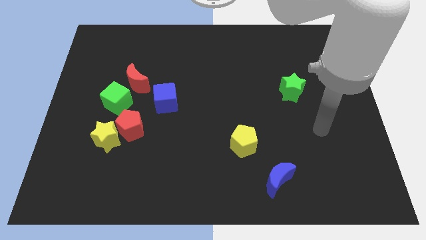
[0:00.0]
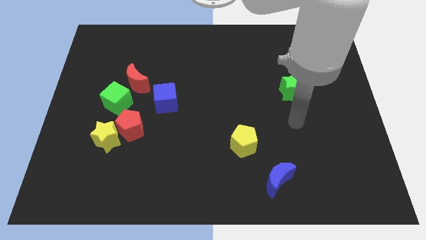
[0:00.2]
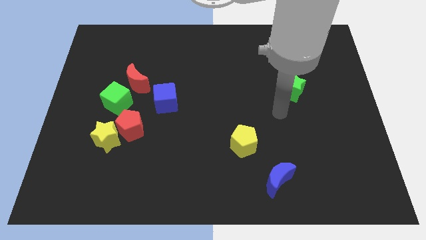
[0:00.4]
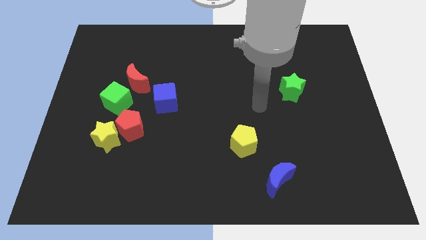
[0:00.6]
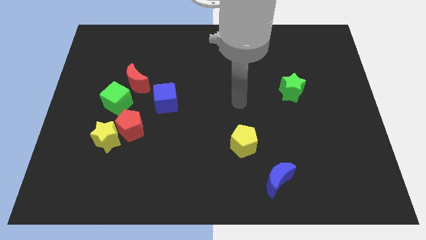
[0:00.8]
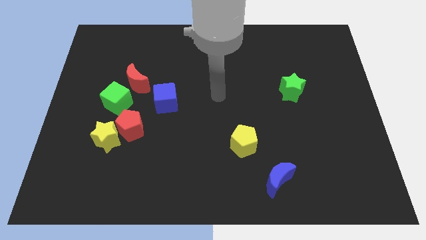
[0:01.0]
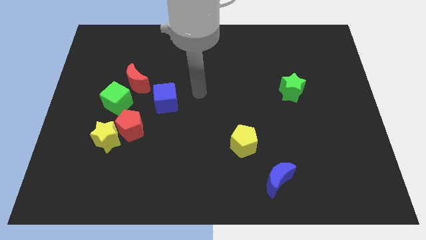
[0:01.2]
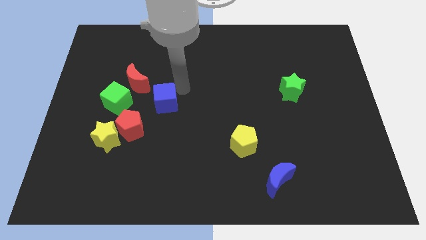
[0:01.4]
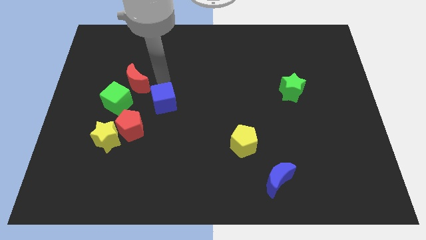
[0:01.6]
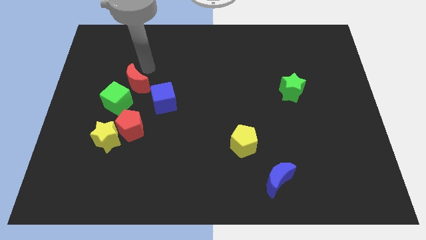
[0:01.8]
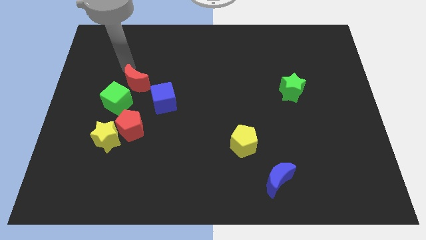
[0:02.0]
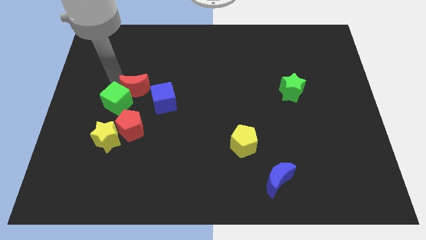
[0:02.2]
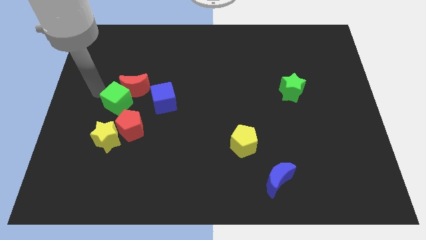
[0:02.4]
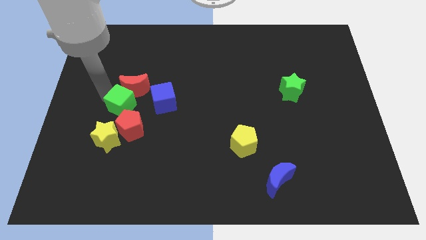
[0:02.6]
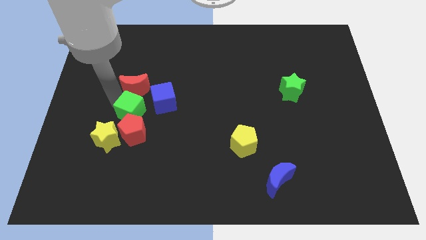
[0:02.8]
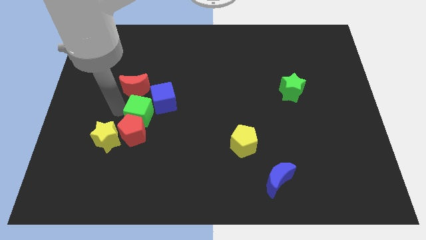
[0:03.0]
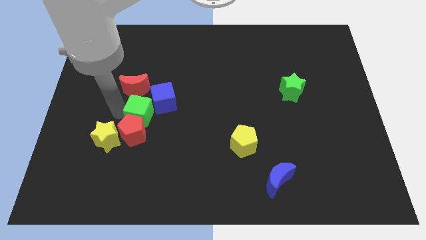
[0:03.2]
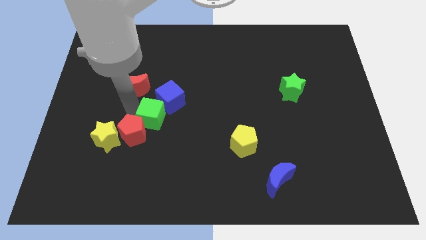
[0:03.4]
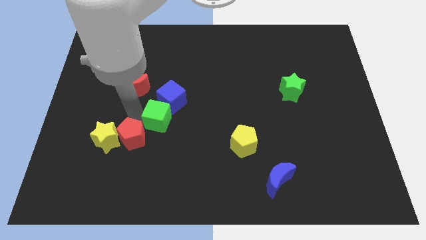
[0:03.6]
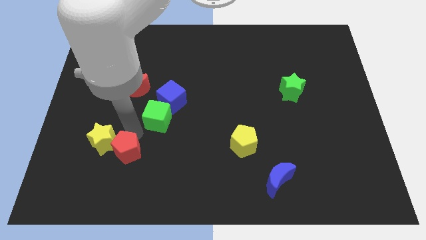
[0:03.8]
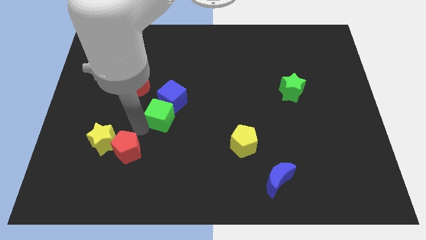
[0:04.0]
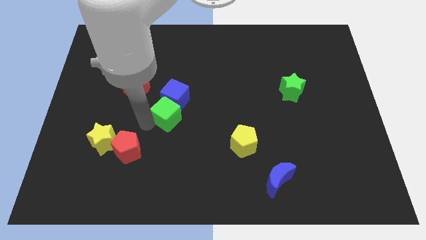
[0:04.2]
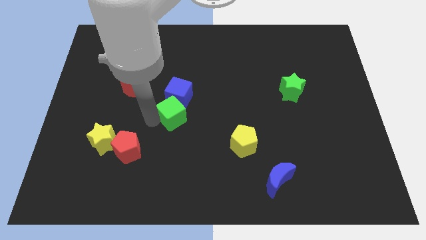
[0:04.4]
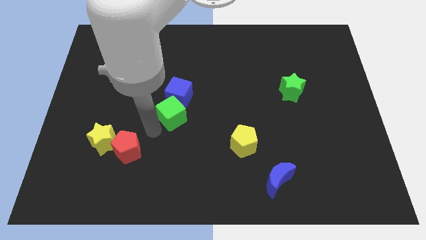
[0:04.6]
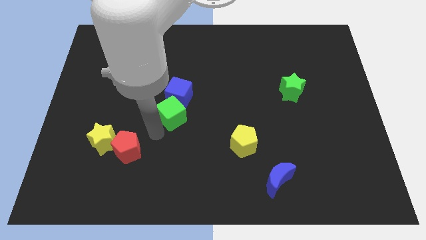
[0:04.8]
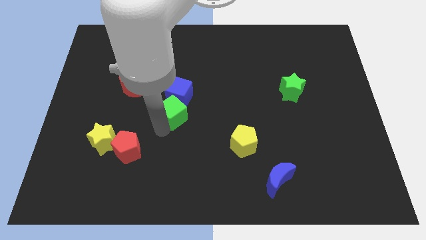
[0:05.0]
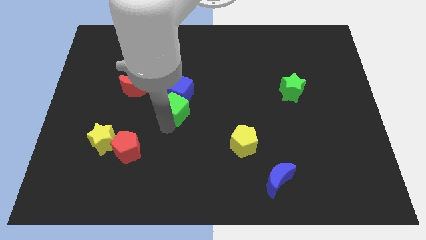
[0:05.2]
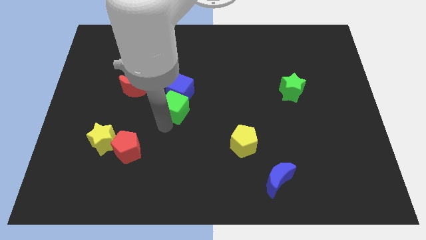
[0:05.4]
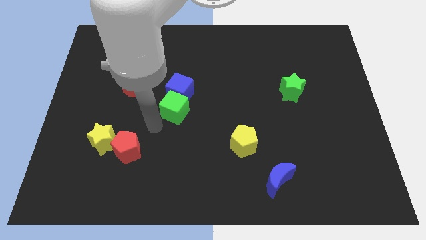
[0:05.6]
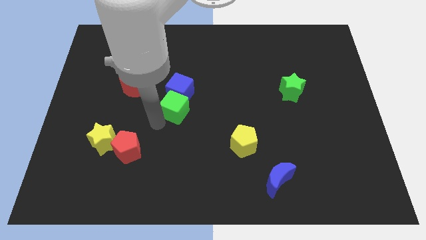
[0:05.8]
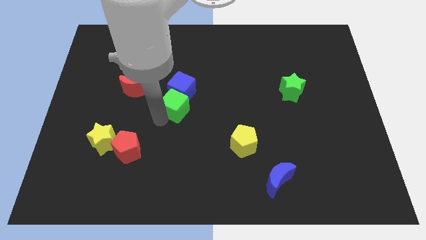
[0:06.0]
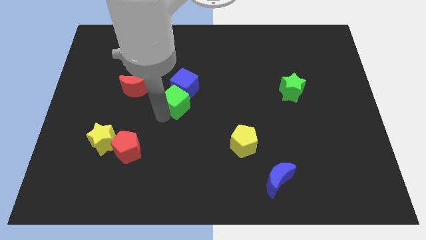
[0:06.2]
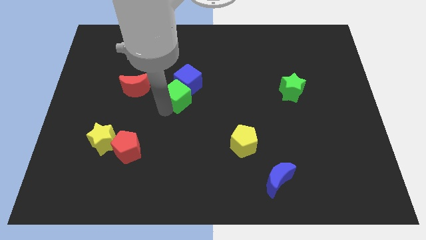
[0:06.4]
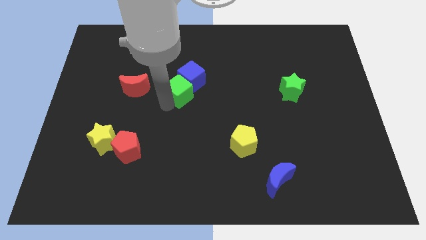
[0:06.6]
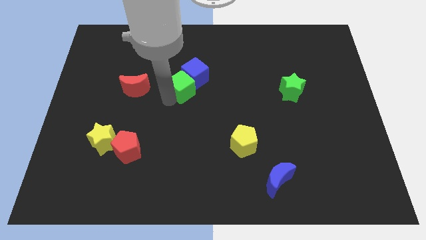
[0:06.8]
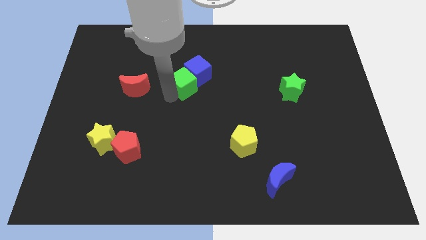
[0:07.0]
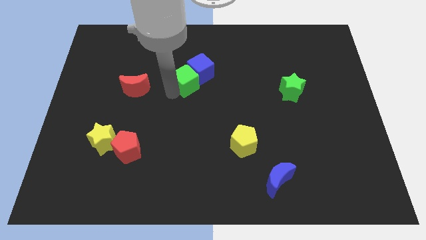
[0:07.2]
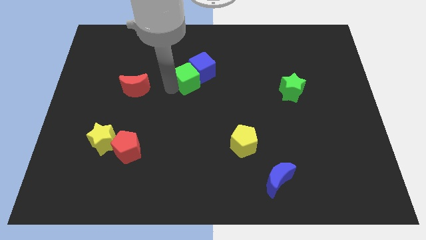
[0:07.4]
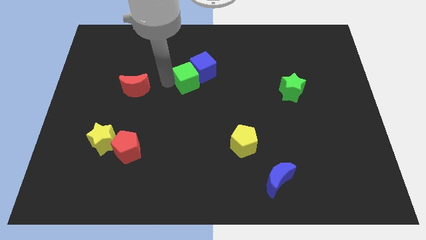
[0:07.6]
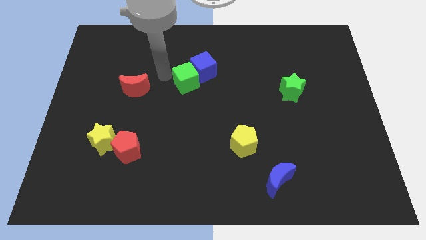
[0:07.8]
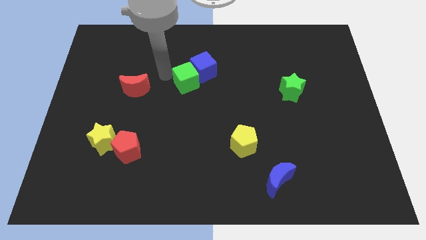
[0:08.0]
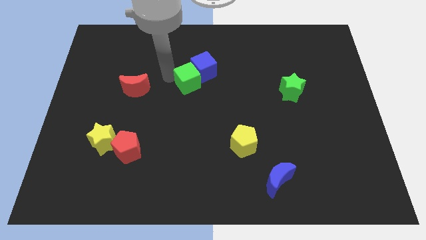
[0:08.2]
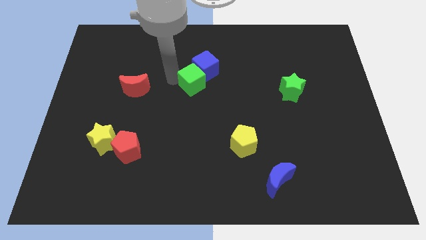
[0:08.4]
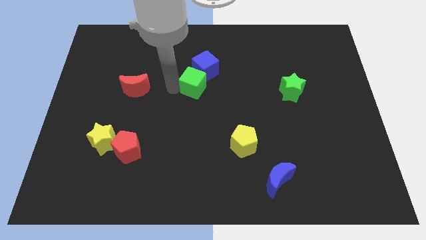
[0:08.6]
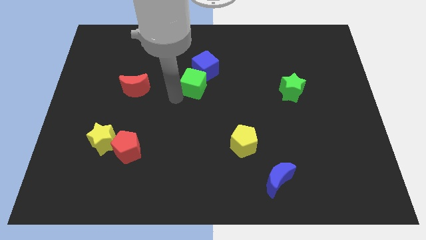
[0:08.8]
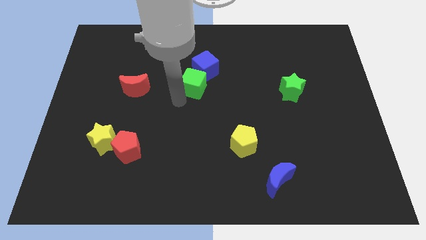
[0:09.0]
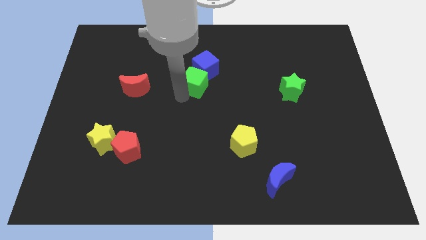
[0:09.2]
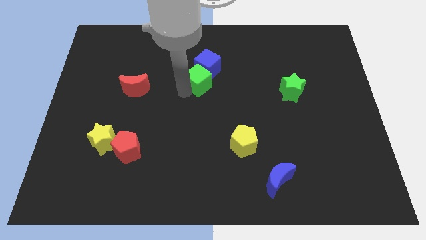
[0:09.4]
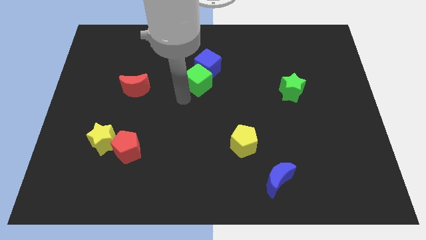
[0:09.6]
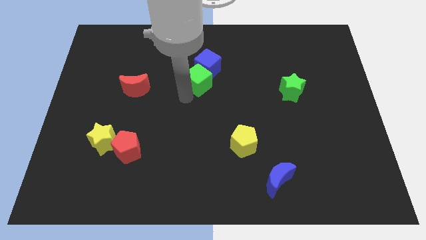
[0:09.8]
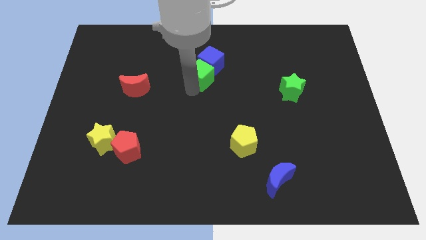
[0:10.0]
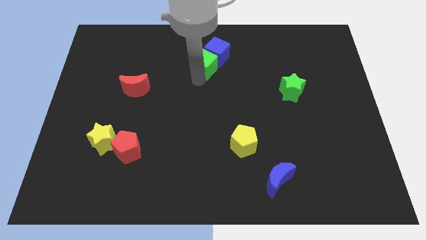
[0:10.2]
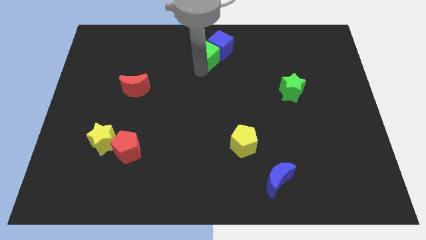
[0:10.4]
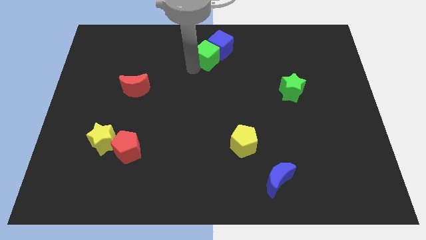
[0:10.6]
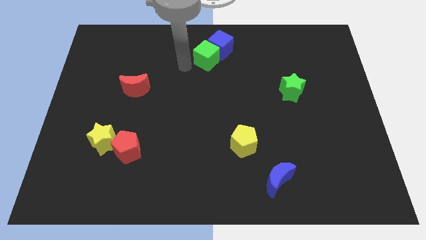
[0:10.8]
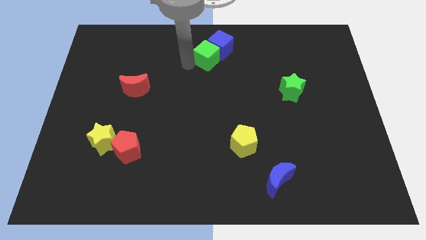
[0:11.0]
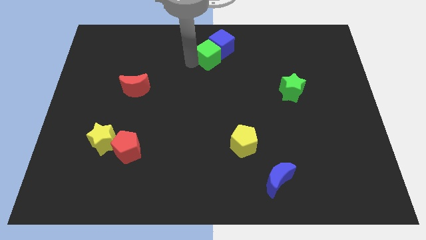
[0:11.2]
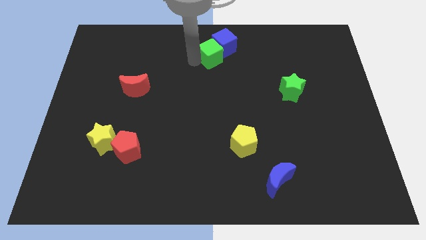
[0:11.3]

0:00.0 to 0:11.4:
put the green cube to the towards your base
